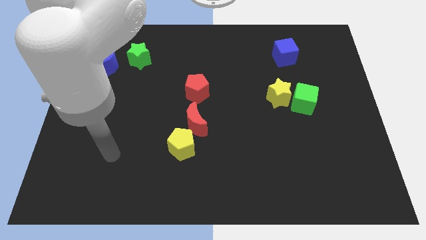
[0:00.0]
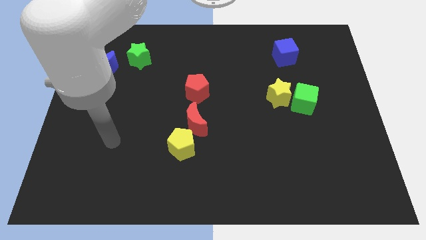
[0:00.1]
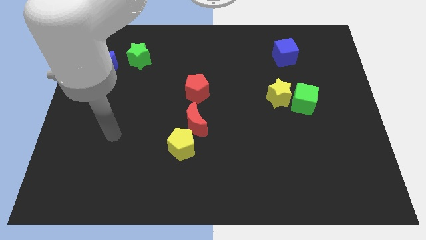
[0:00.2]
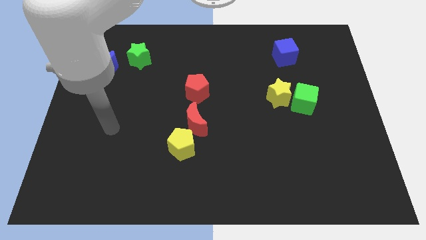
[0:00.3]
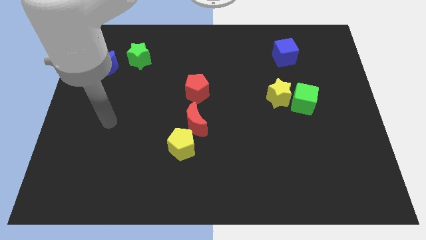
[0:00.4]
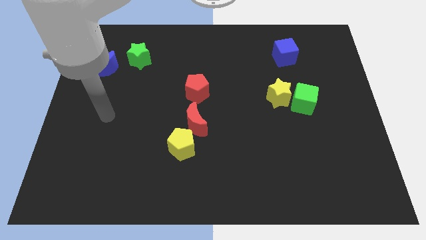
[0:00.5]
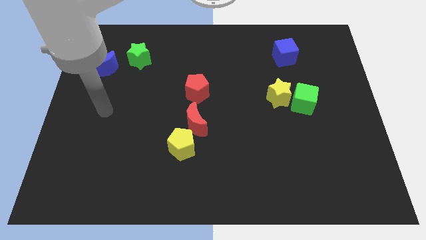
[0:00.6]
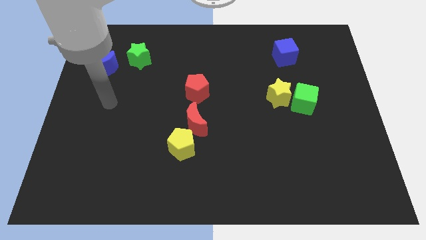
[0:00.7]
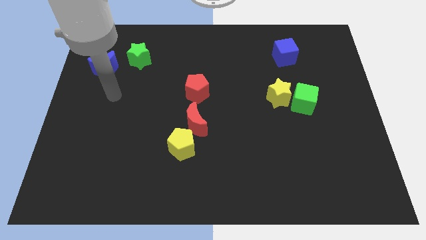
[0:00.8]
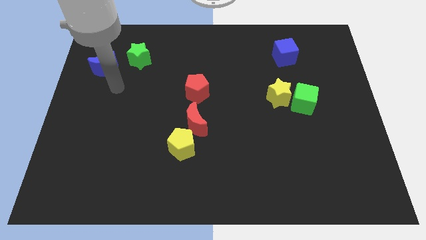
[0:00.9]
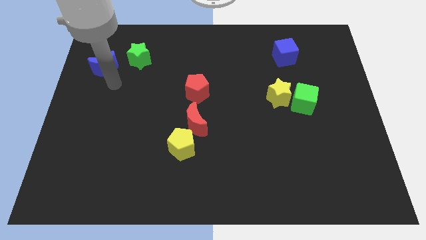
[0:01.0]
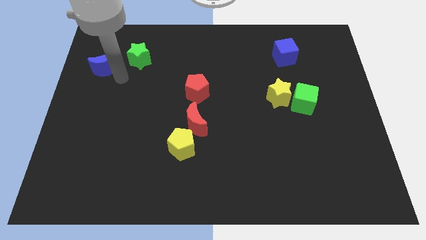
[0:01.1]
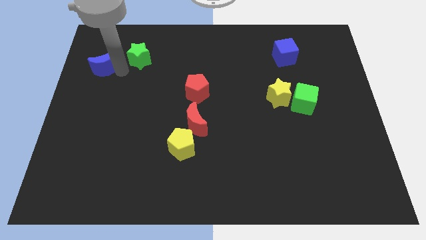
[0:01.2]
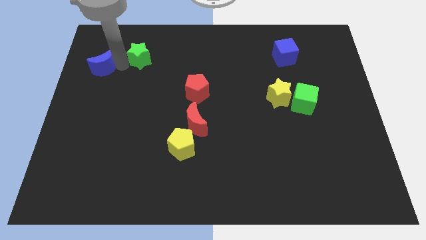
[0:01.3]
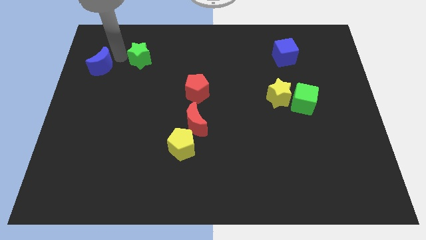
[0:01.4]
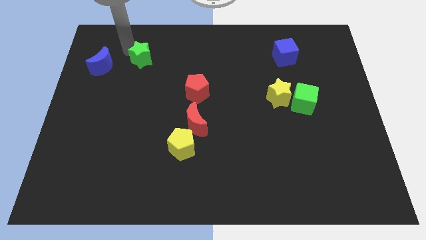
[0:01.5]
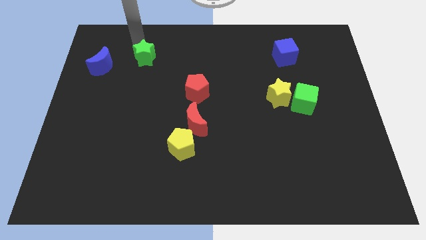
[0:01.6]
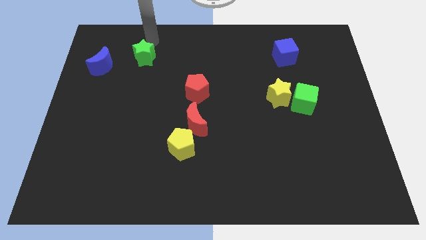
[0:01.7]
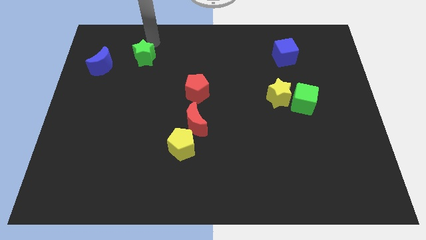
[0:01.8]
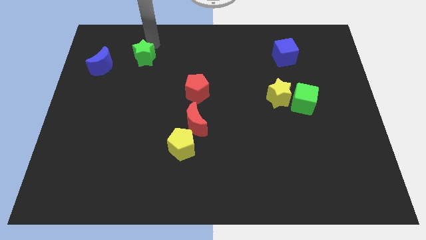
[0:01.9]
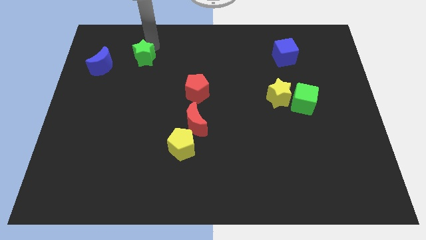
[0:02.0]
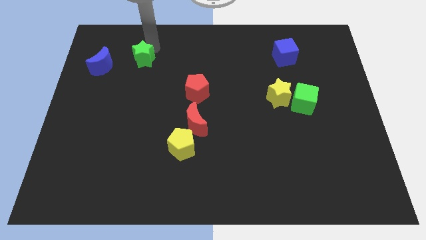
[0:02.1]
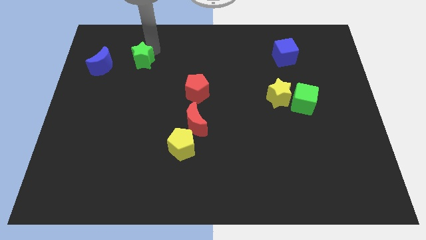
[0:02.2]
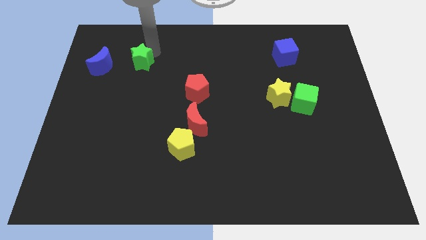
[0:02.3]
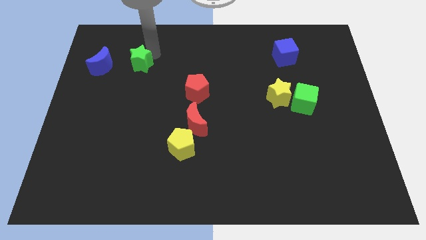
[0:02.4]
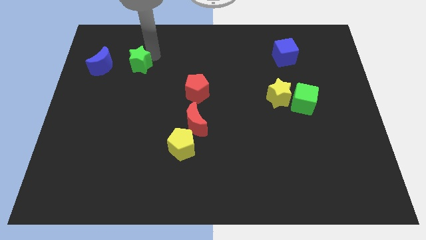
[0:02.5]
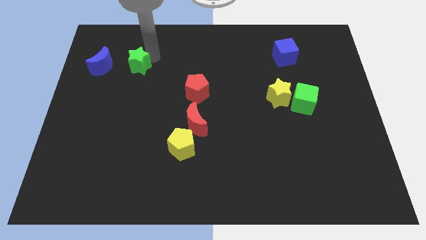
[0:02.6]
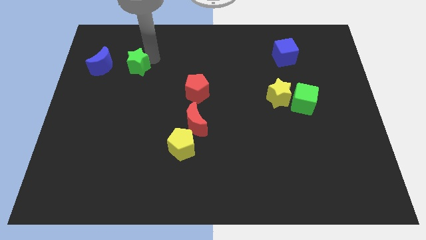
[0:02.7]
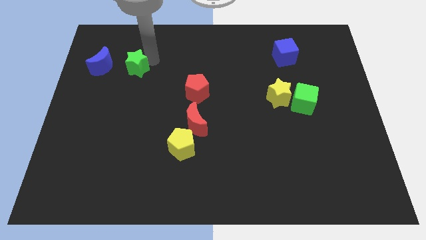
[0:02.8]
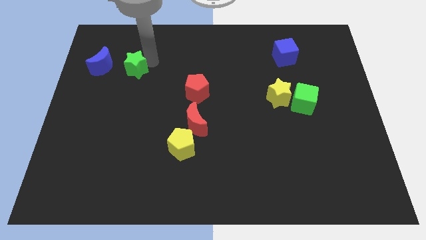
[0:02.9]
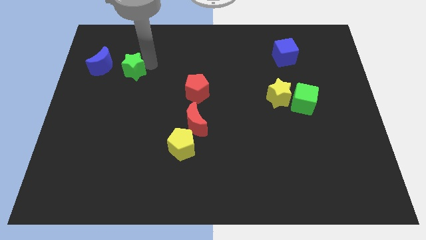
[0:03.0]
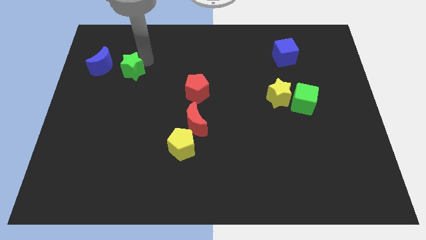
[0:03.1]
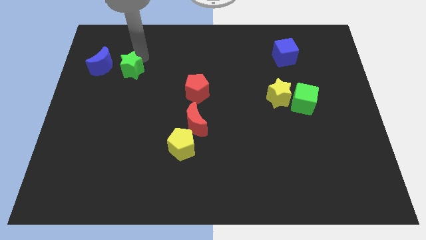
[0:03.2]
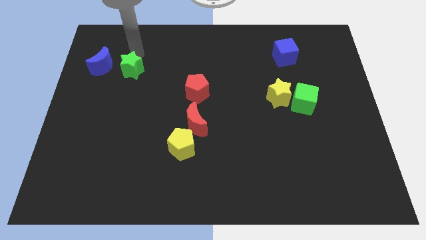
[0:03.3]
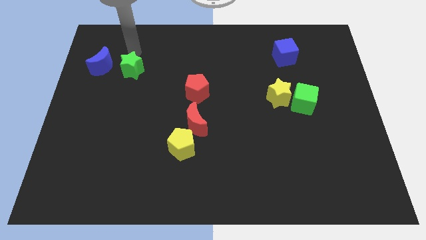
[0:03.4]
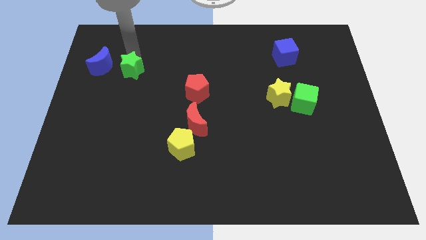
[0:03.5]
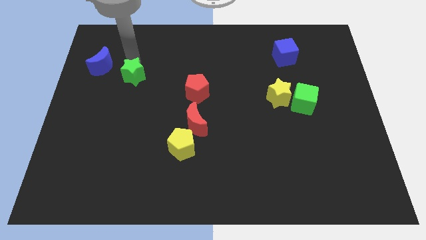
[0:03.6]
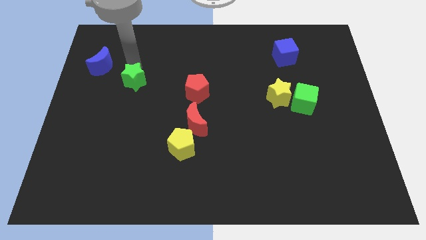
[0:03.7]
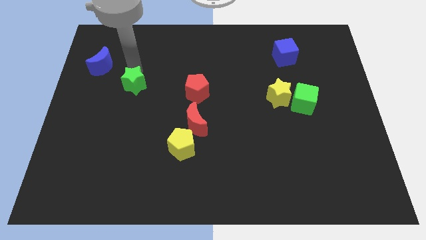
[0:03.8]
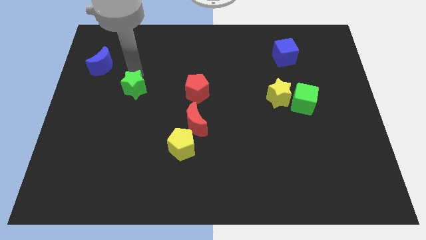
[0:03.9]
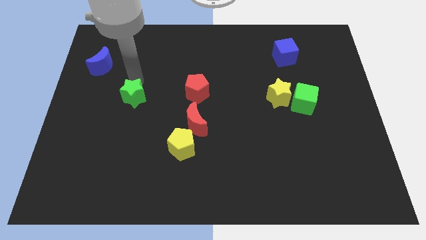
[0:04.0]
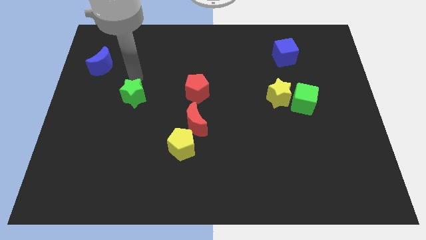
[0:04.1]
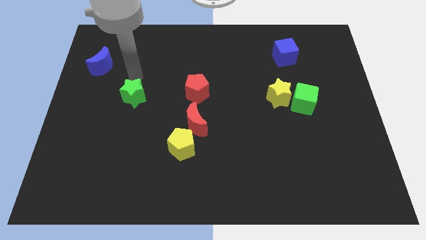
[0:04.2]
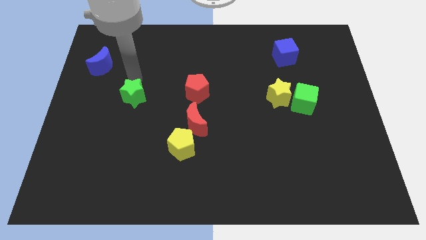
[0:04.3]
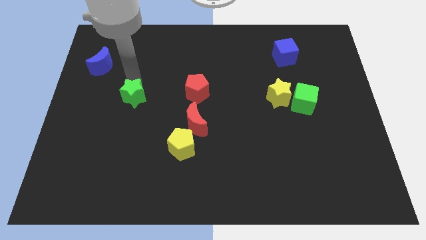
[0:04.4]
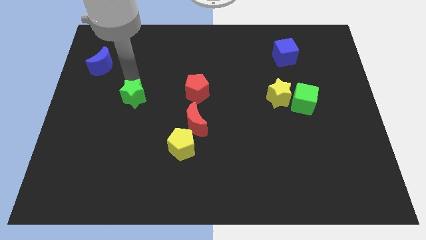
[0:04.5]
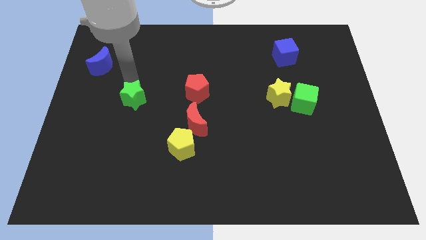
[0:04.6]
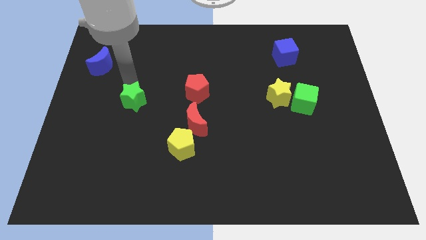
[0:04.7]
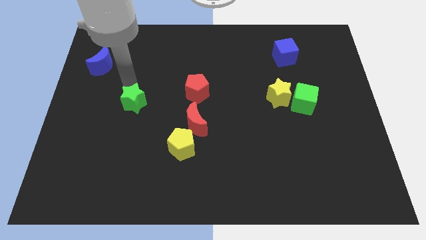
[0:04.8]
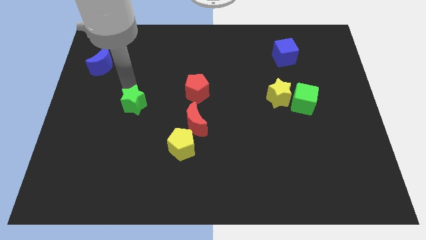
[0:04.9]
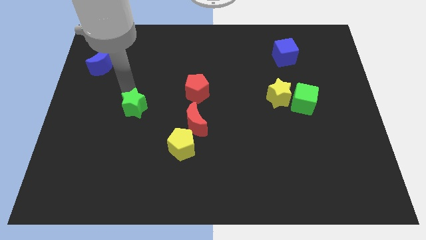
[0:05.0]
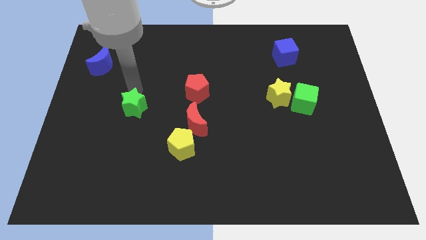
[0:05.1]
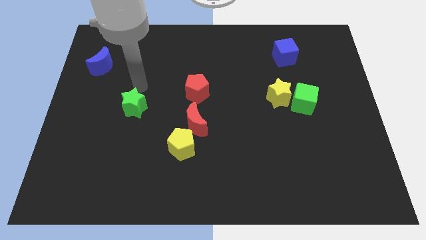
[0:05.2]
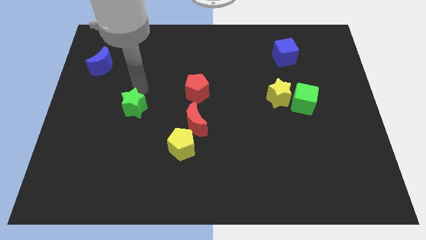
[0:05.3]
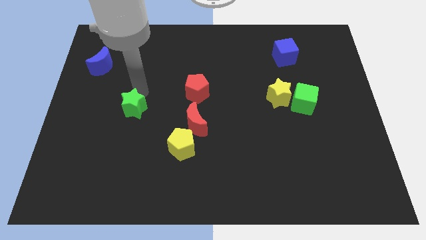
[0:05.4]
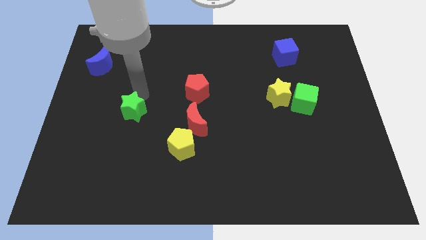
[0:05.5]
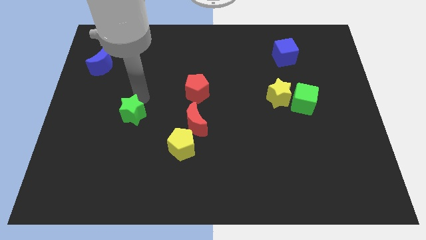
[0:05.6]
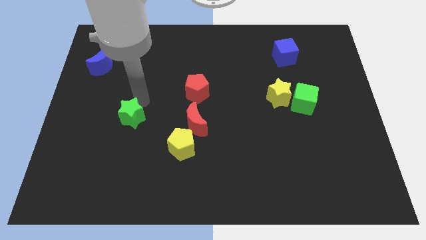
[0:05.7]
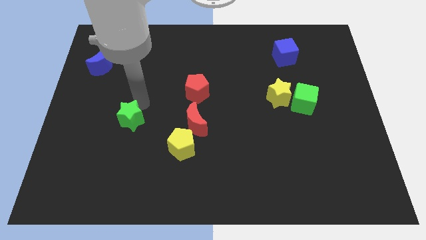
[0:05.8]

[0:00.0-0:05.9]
push the green star downwards

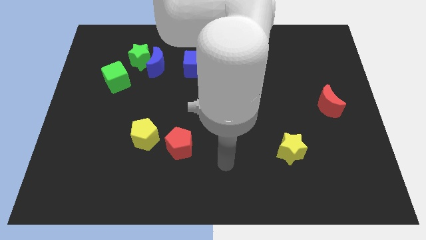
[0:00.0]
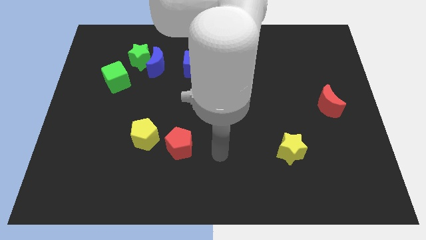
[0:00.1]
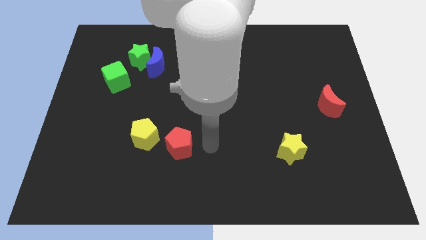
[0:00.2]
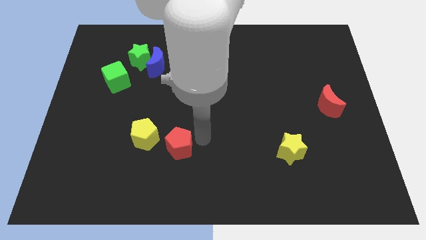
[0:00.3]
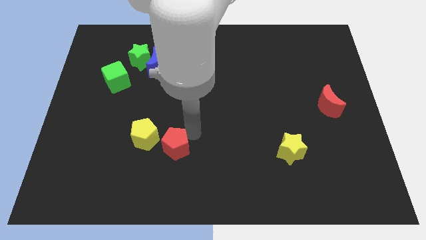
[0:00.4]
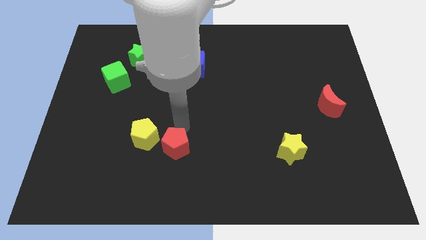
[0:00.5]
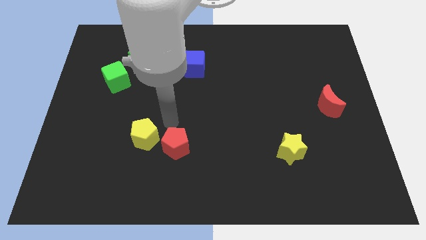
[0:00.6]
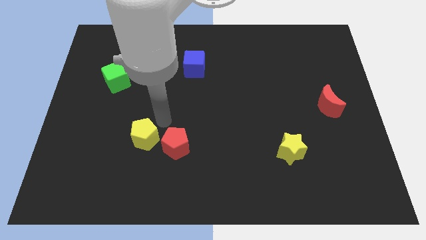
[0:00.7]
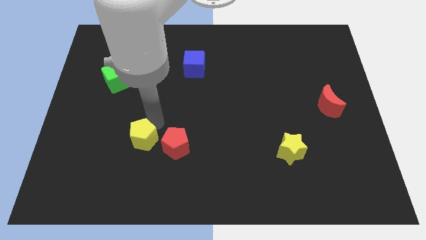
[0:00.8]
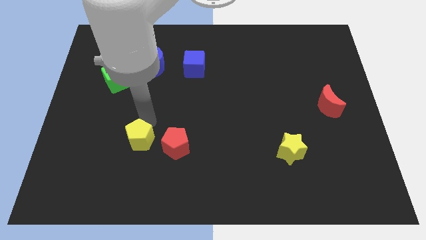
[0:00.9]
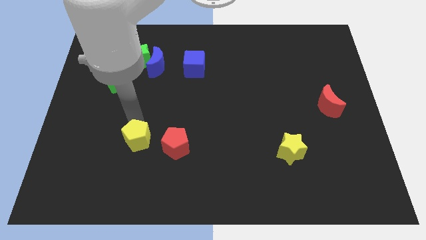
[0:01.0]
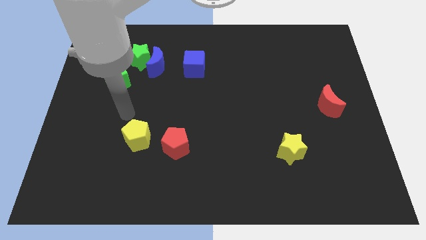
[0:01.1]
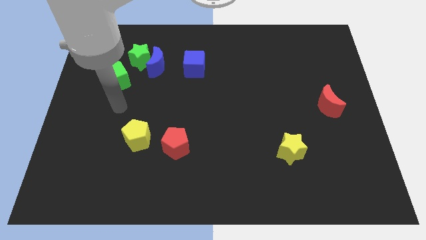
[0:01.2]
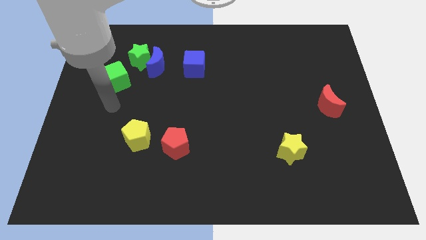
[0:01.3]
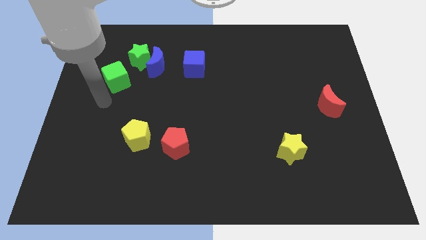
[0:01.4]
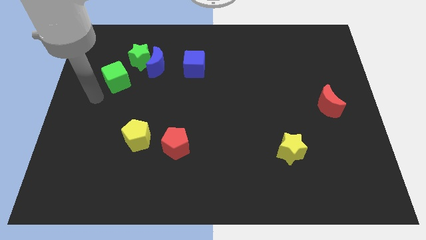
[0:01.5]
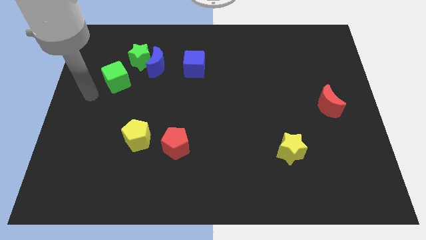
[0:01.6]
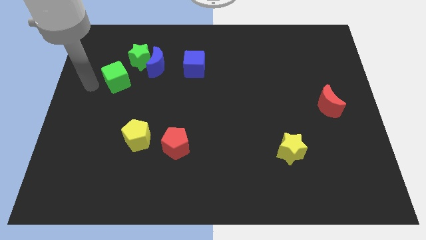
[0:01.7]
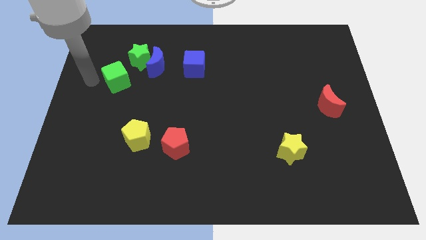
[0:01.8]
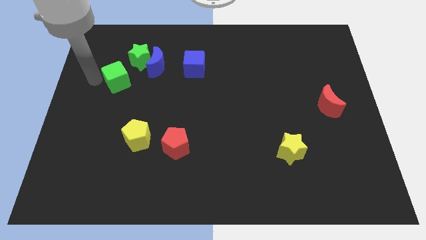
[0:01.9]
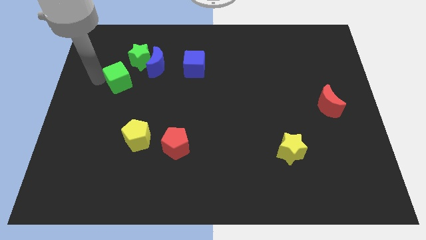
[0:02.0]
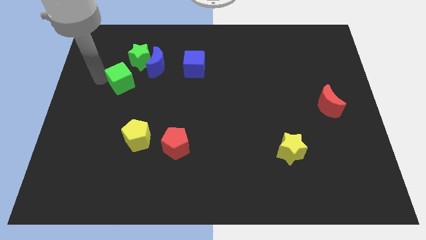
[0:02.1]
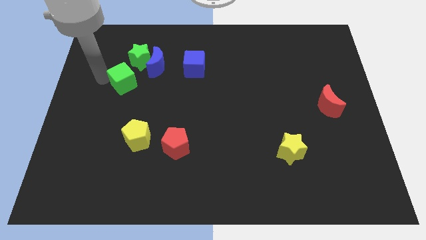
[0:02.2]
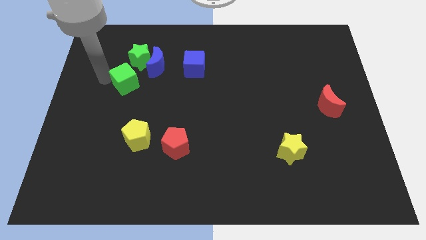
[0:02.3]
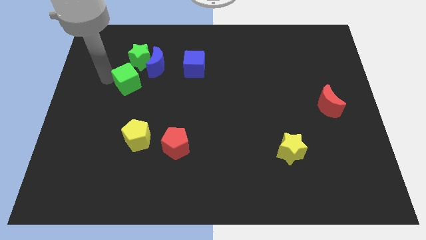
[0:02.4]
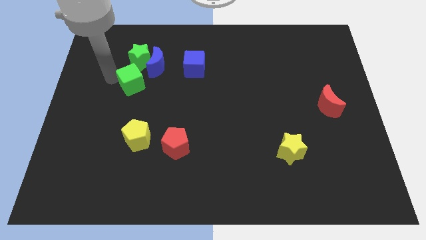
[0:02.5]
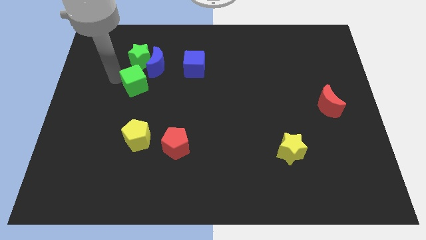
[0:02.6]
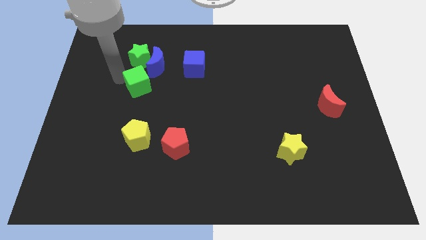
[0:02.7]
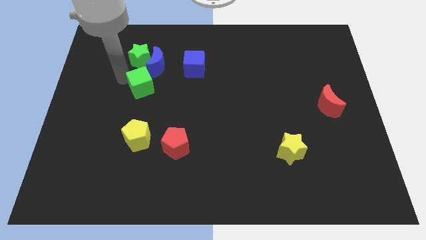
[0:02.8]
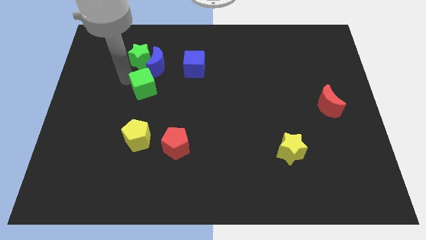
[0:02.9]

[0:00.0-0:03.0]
slightly slide the green cube to the right
